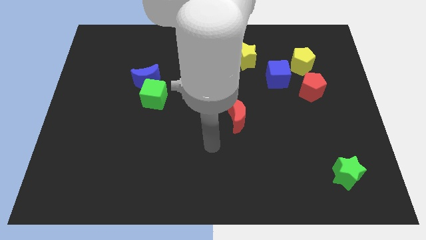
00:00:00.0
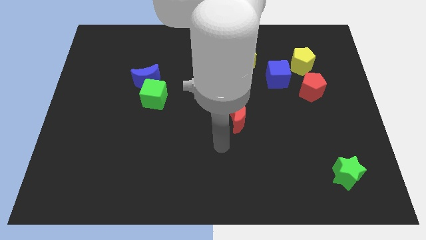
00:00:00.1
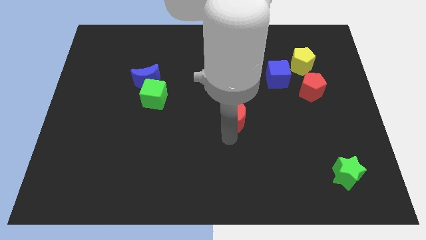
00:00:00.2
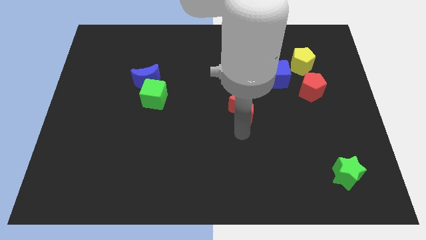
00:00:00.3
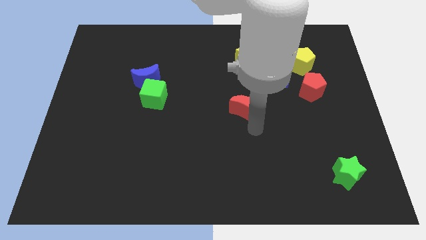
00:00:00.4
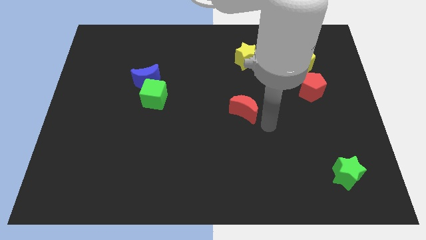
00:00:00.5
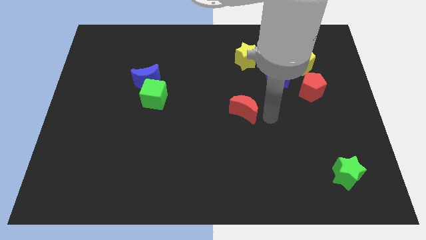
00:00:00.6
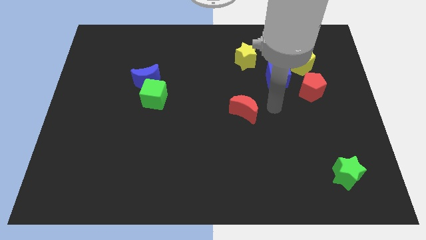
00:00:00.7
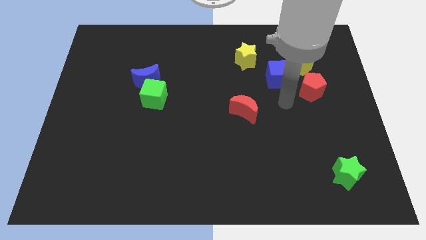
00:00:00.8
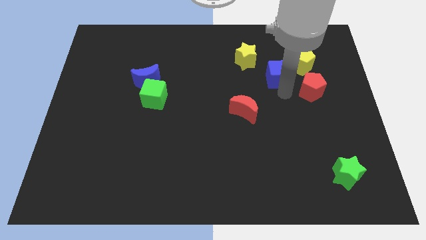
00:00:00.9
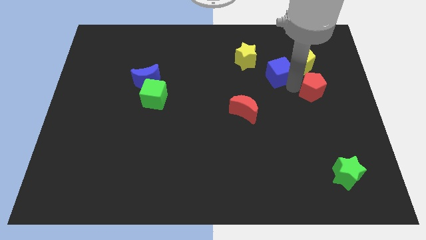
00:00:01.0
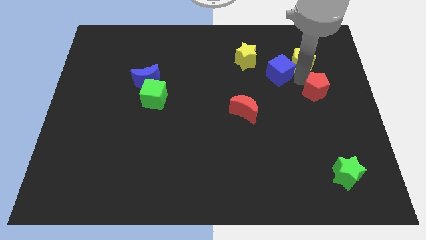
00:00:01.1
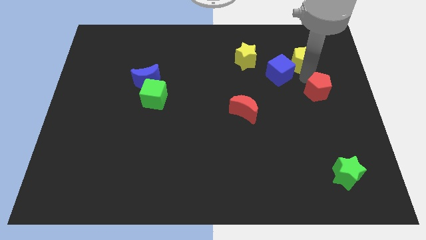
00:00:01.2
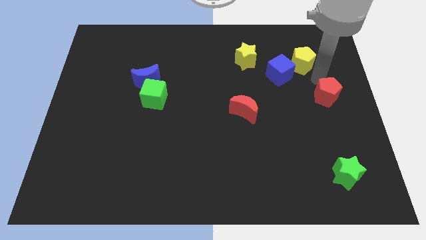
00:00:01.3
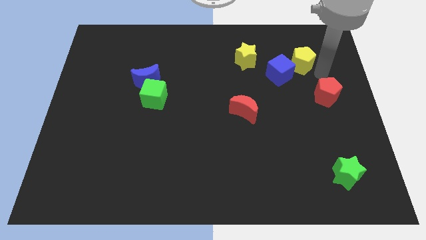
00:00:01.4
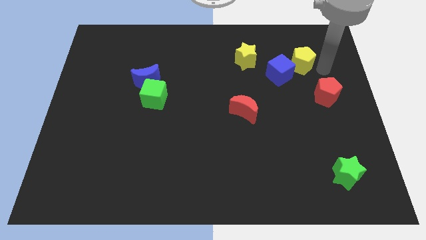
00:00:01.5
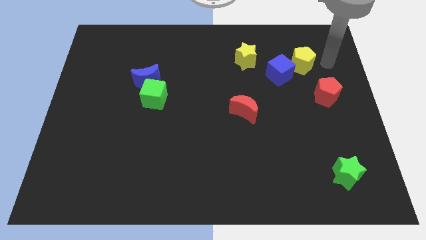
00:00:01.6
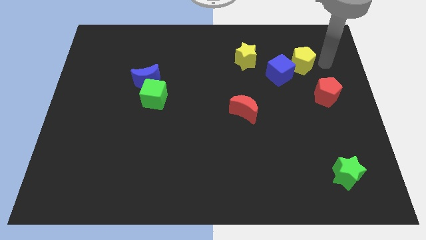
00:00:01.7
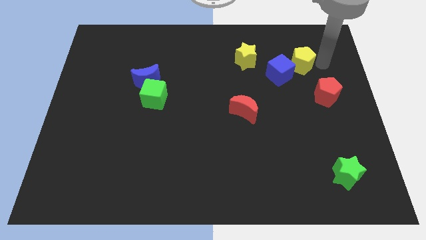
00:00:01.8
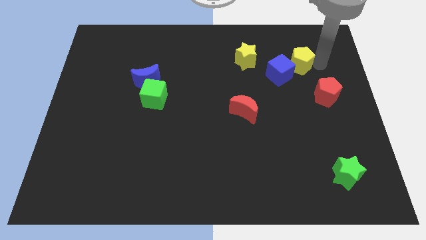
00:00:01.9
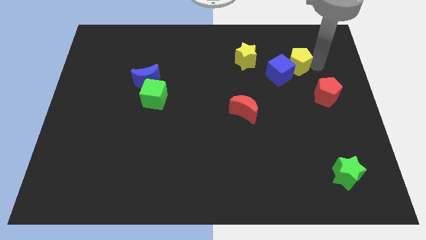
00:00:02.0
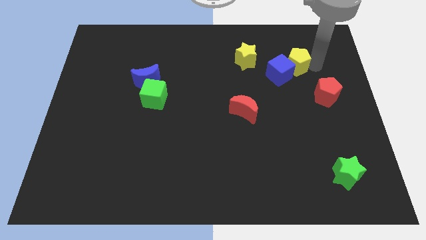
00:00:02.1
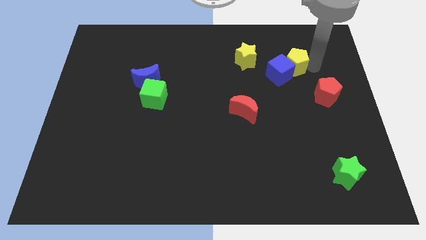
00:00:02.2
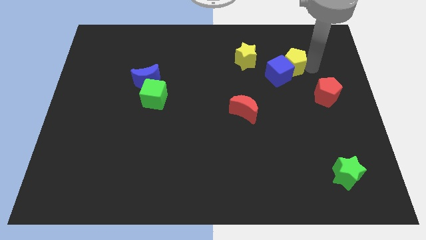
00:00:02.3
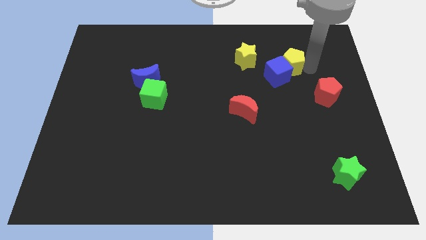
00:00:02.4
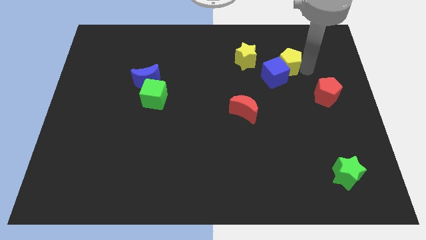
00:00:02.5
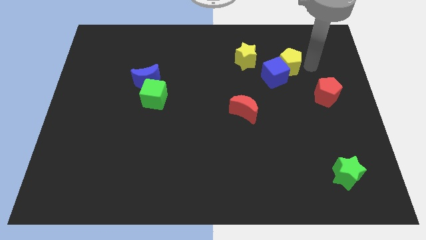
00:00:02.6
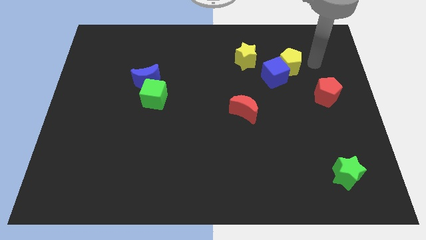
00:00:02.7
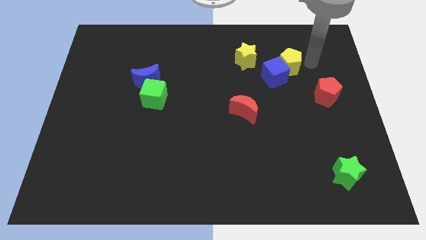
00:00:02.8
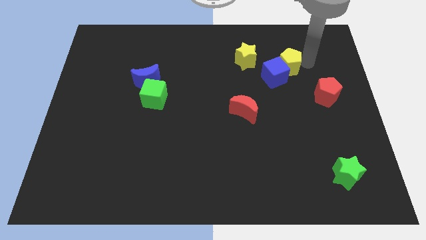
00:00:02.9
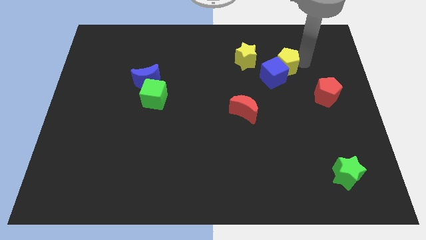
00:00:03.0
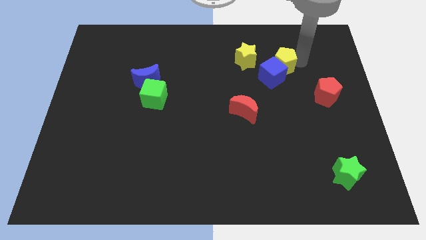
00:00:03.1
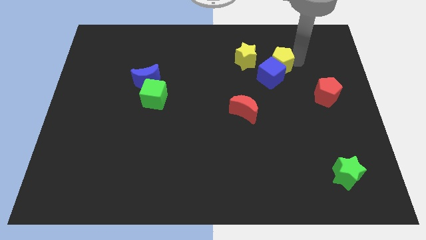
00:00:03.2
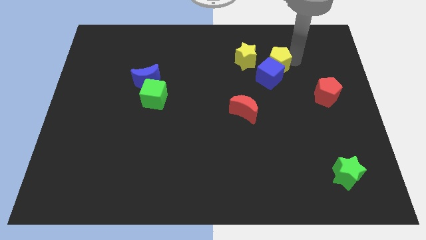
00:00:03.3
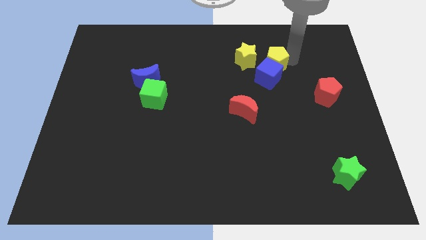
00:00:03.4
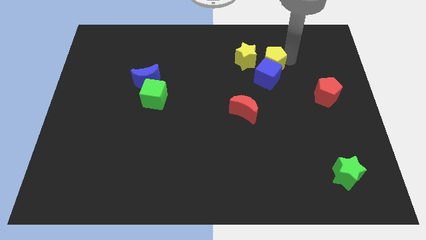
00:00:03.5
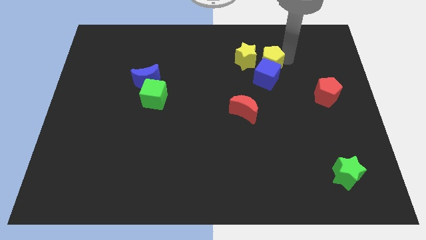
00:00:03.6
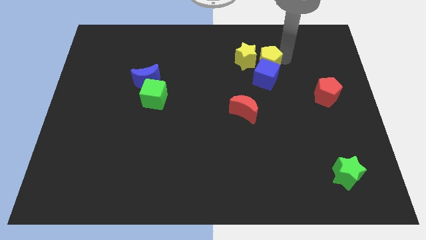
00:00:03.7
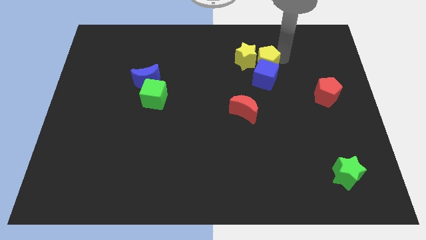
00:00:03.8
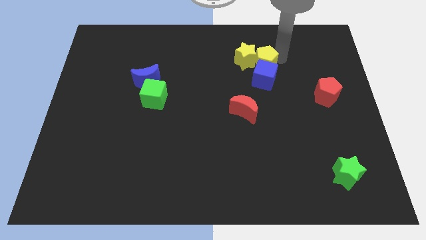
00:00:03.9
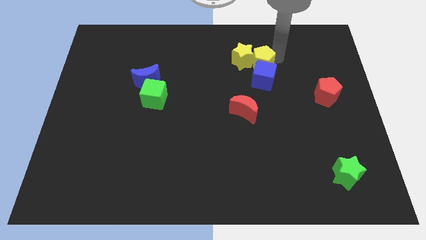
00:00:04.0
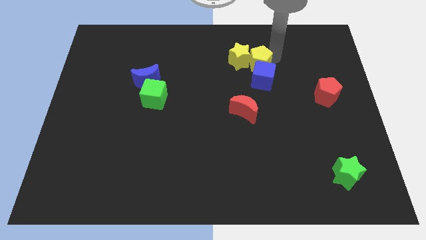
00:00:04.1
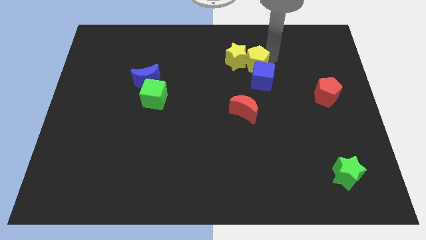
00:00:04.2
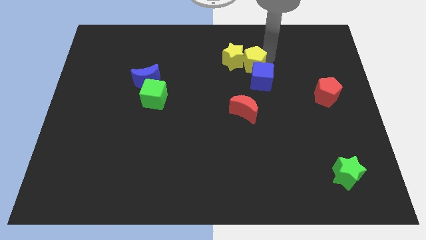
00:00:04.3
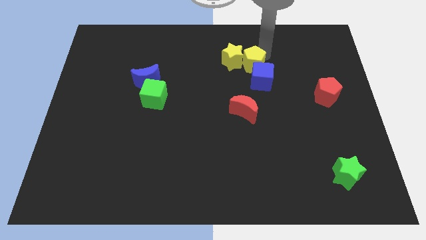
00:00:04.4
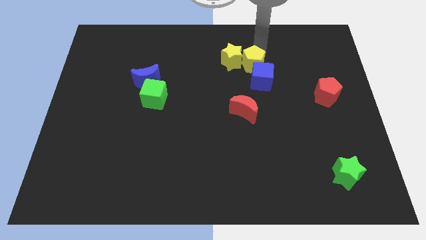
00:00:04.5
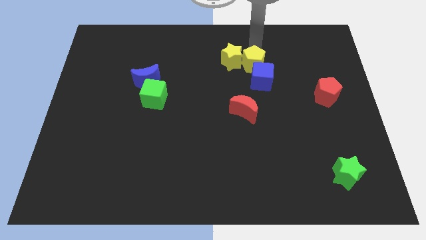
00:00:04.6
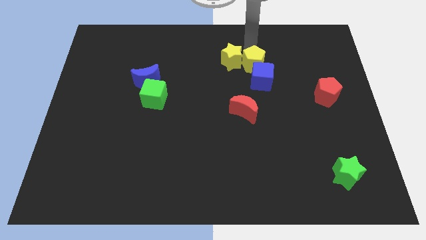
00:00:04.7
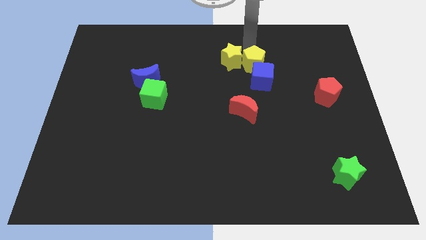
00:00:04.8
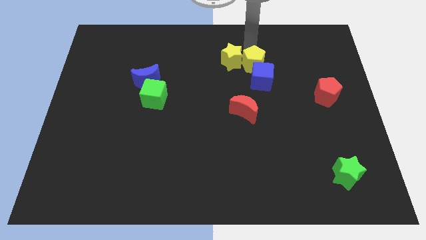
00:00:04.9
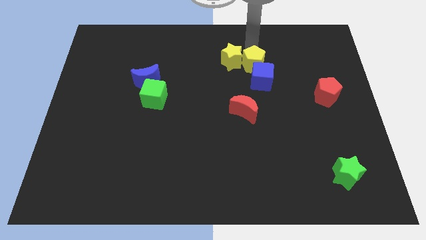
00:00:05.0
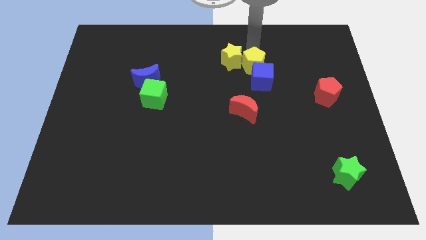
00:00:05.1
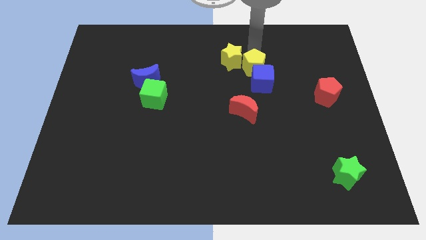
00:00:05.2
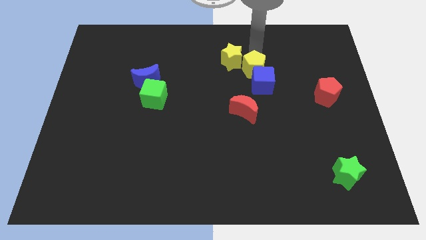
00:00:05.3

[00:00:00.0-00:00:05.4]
push the yellow pentagon downwards and to the left diagonally somewhat

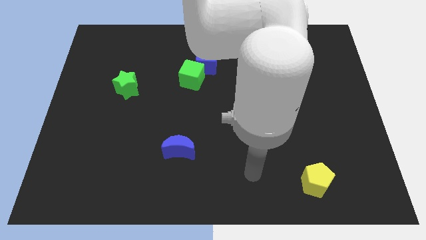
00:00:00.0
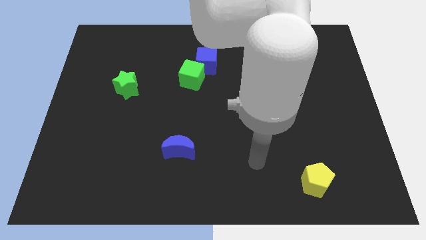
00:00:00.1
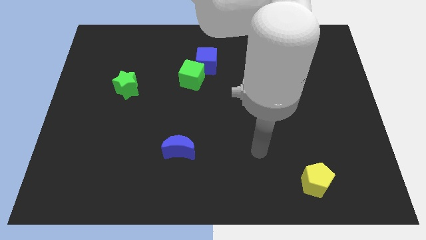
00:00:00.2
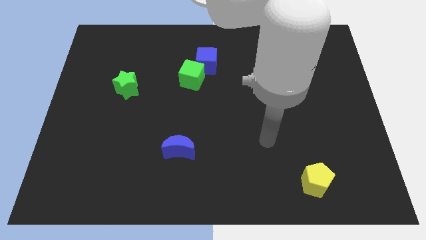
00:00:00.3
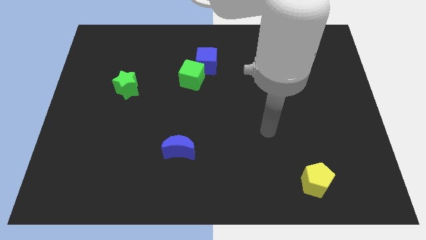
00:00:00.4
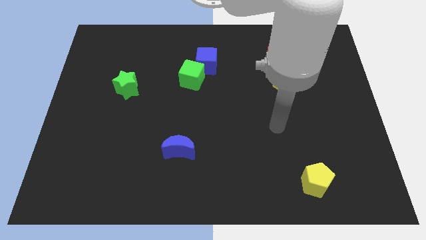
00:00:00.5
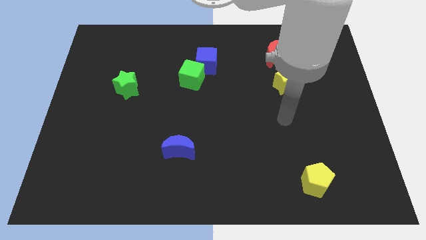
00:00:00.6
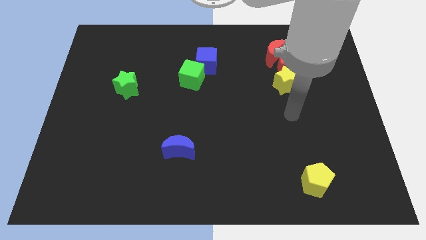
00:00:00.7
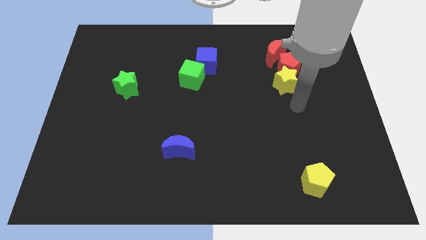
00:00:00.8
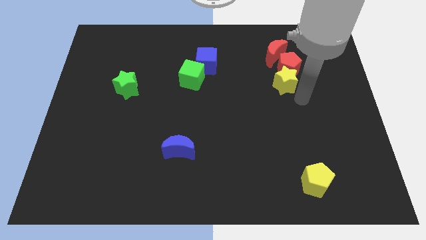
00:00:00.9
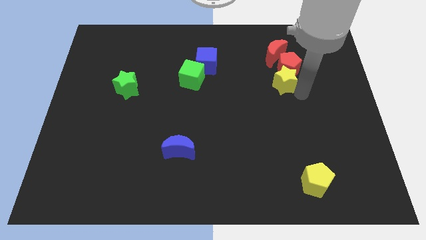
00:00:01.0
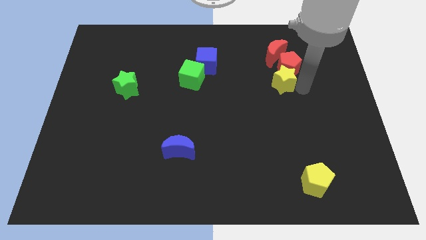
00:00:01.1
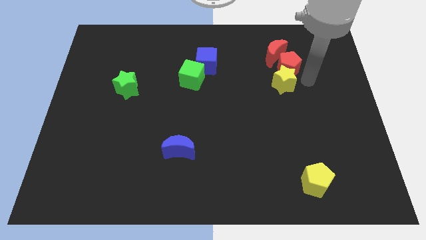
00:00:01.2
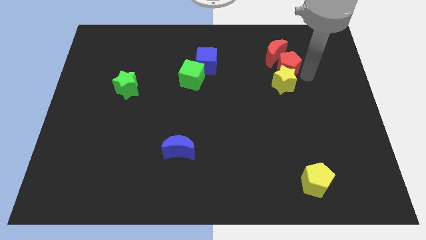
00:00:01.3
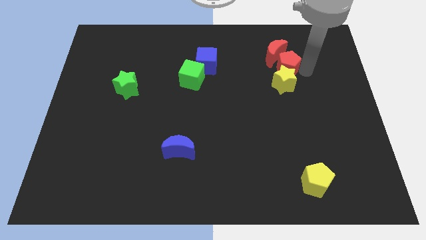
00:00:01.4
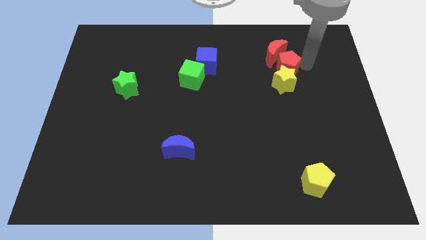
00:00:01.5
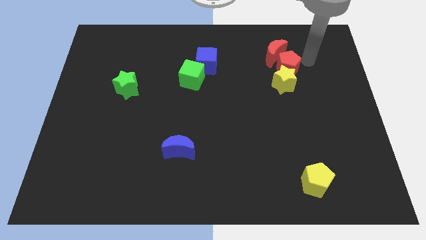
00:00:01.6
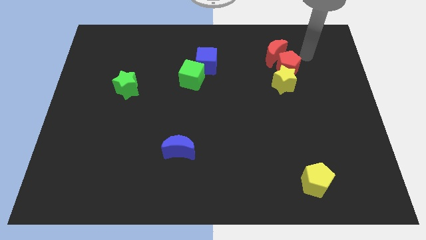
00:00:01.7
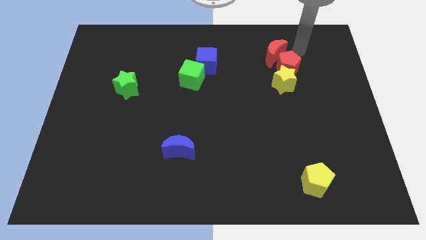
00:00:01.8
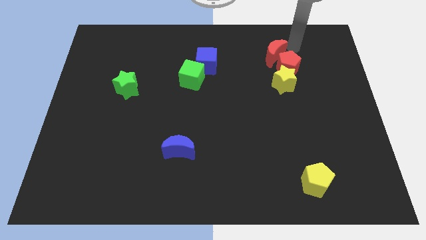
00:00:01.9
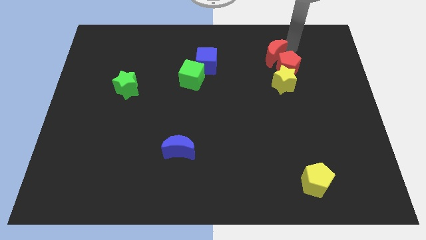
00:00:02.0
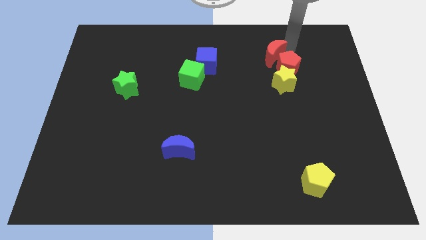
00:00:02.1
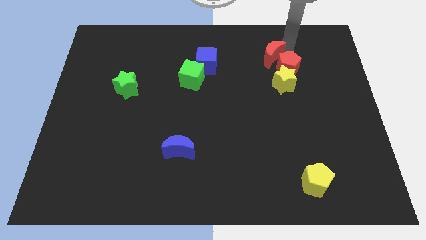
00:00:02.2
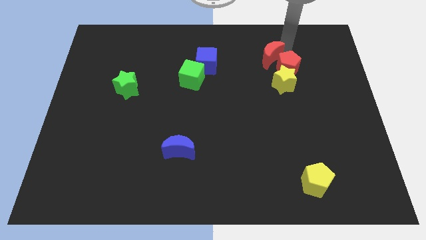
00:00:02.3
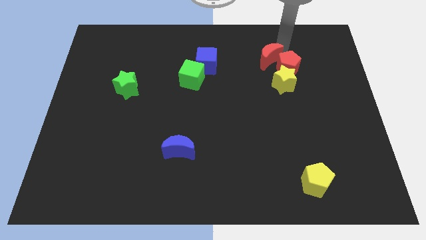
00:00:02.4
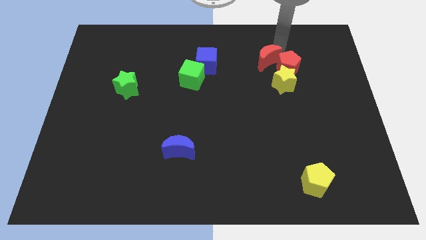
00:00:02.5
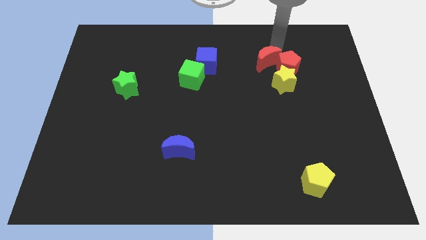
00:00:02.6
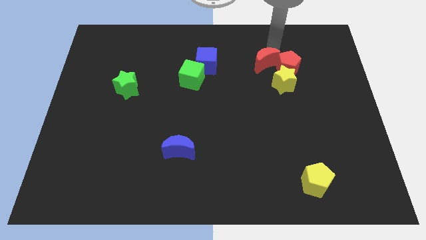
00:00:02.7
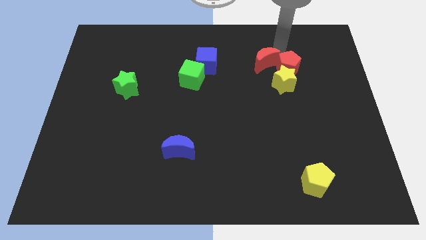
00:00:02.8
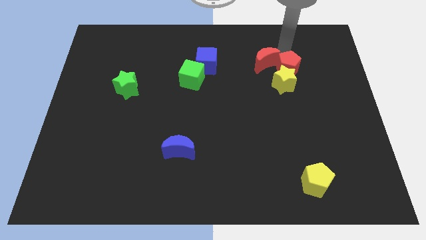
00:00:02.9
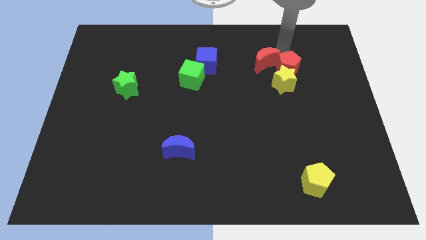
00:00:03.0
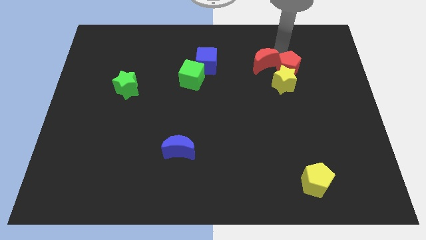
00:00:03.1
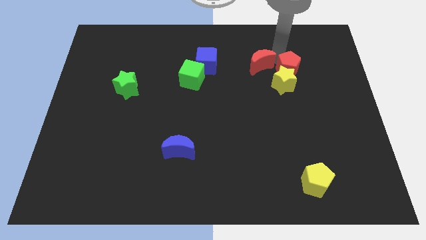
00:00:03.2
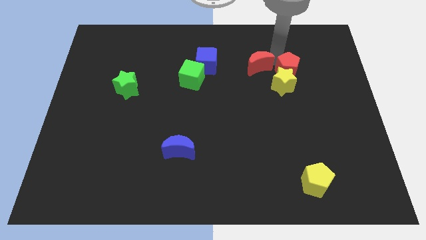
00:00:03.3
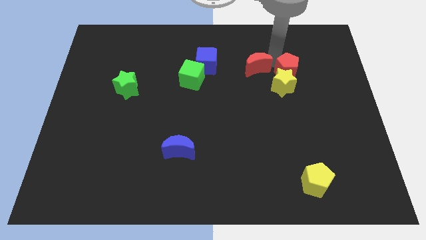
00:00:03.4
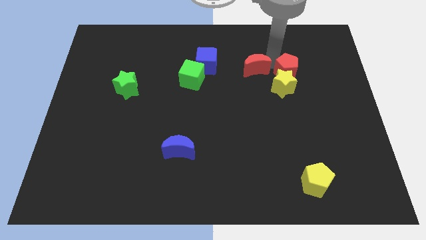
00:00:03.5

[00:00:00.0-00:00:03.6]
slightly slide the red moon down and to the left diagonally
